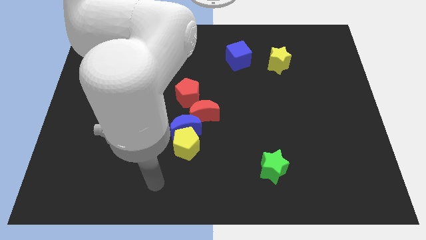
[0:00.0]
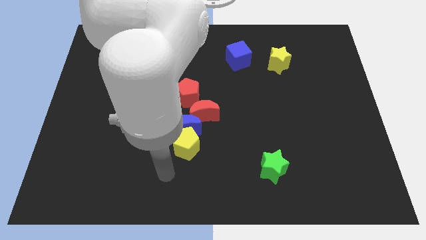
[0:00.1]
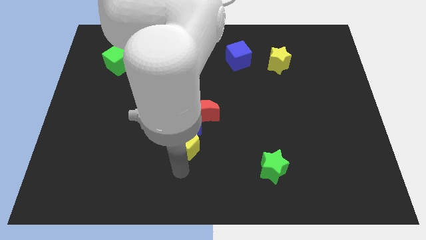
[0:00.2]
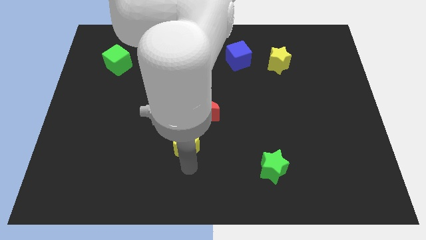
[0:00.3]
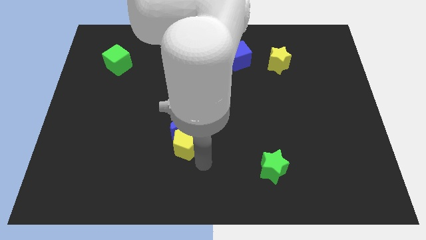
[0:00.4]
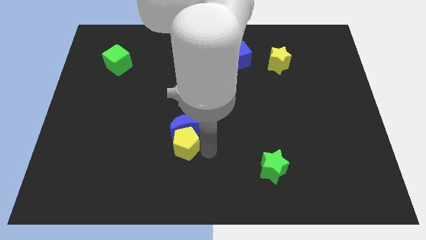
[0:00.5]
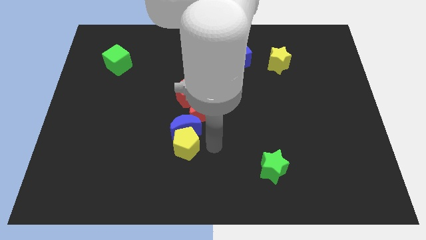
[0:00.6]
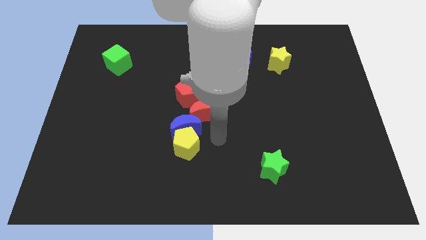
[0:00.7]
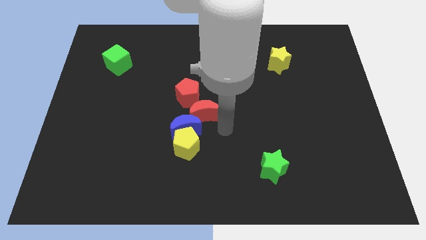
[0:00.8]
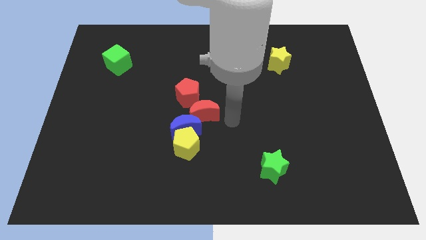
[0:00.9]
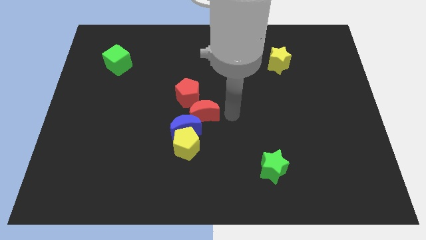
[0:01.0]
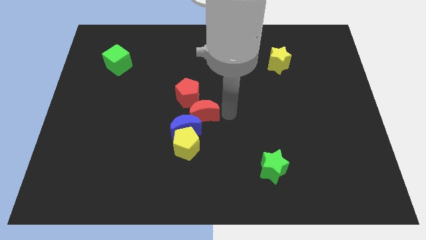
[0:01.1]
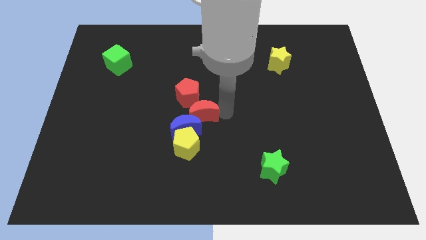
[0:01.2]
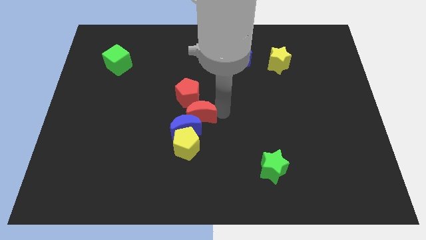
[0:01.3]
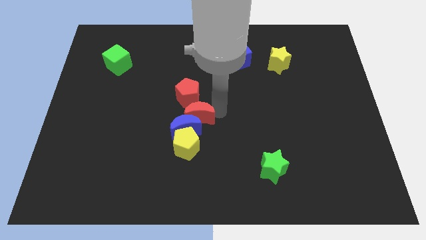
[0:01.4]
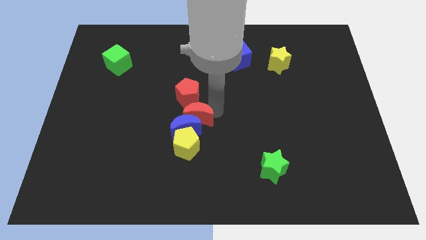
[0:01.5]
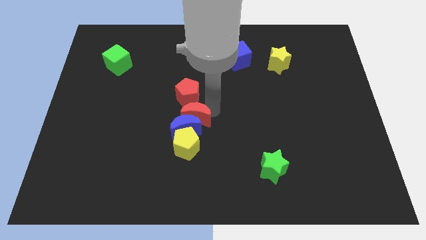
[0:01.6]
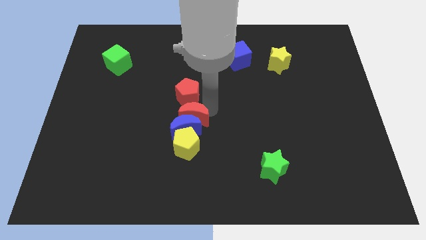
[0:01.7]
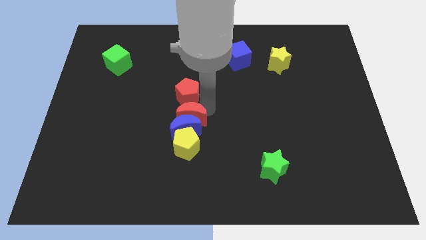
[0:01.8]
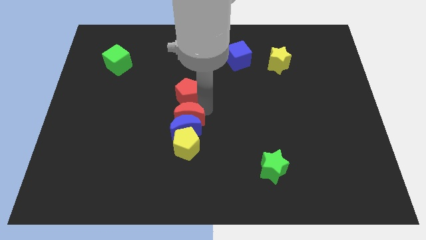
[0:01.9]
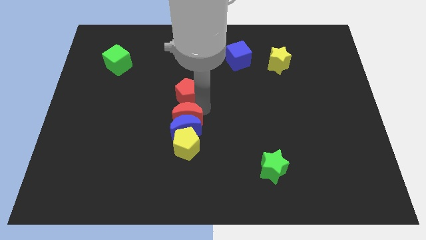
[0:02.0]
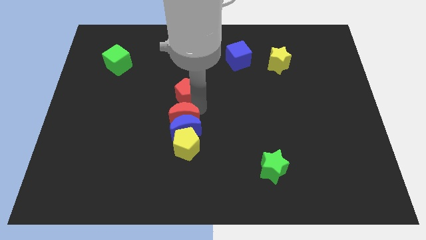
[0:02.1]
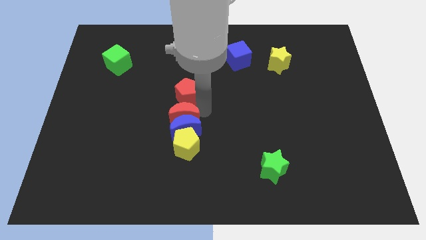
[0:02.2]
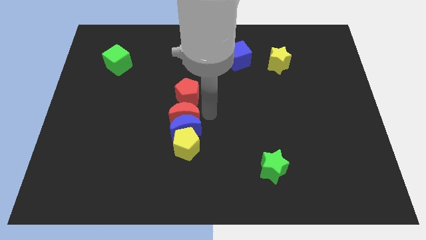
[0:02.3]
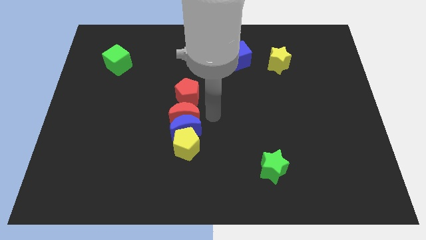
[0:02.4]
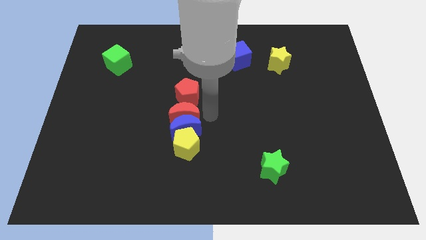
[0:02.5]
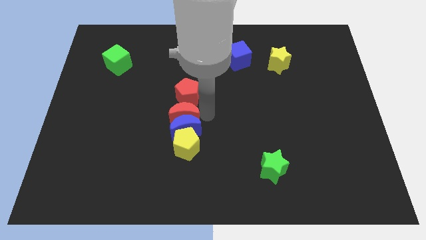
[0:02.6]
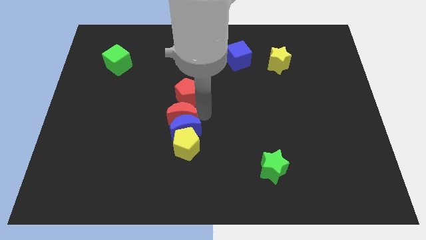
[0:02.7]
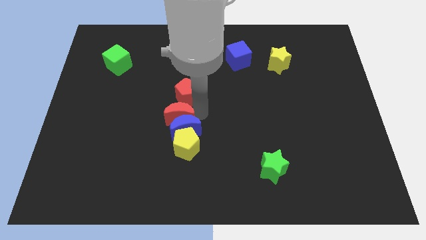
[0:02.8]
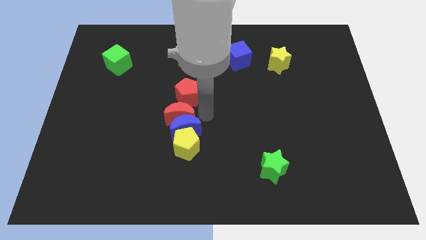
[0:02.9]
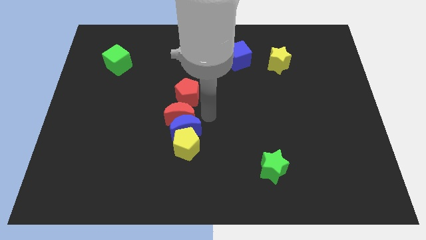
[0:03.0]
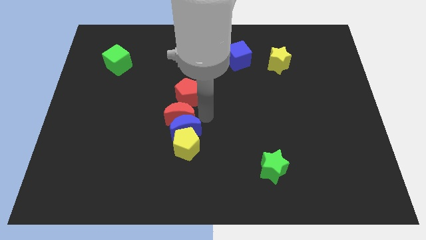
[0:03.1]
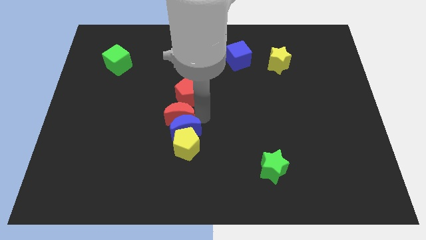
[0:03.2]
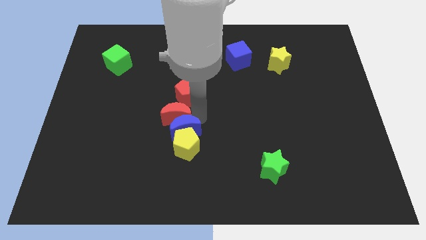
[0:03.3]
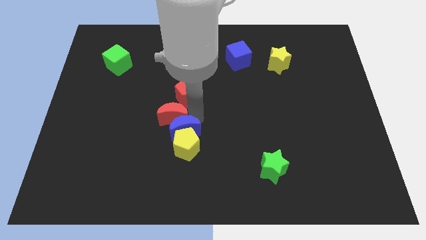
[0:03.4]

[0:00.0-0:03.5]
move the red moon a bit to the left

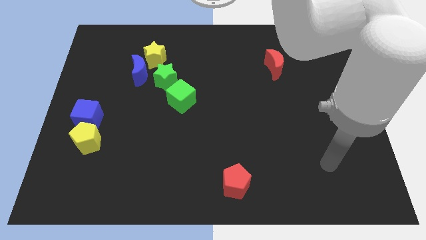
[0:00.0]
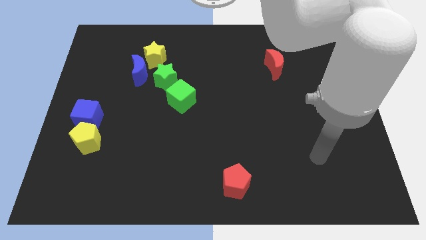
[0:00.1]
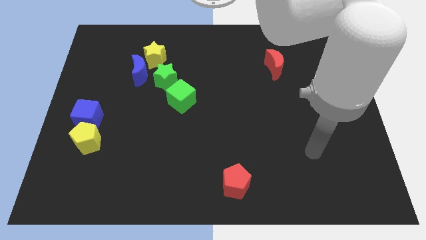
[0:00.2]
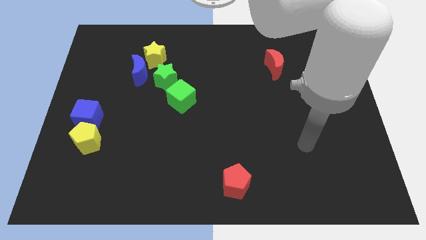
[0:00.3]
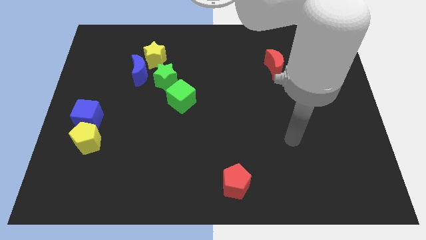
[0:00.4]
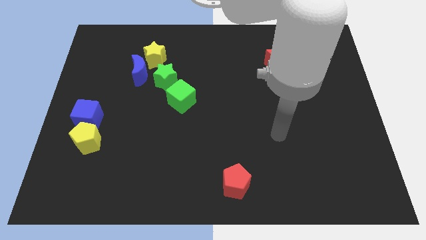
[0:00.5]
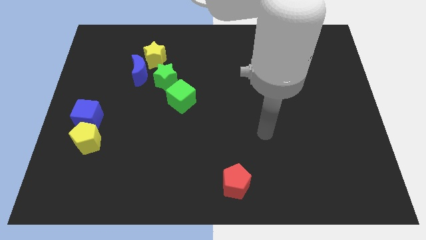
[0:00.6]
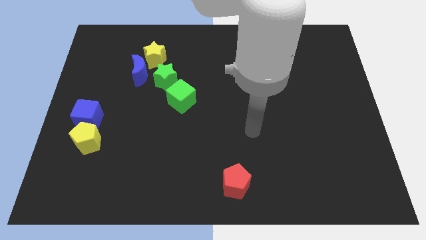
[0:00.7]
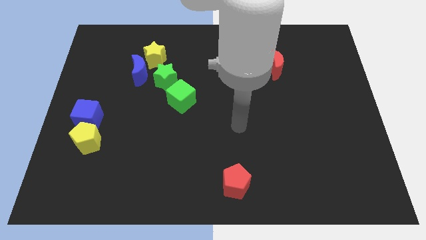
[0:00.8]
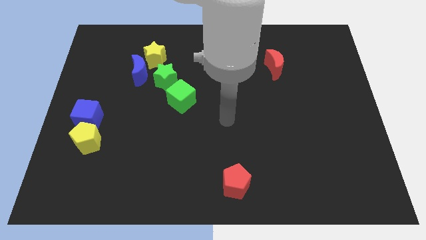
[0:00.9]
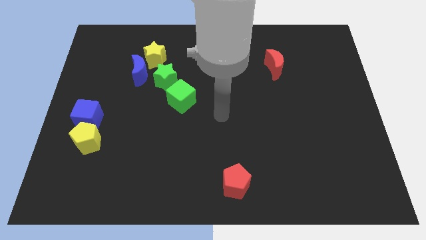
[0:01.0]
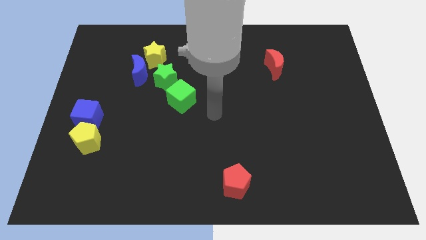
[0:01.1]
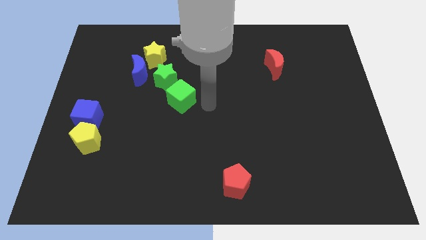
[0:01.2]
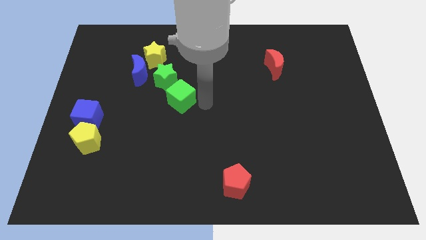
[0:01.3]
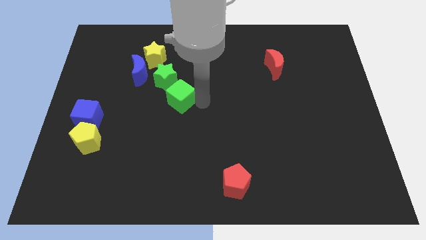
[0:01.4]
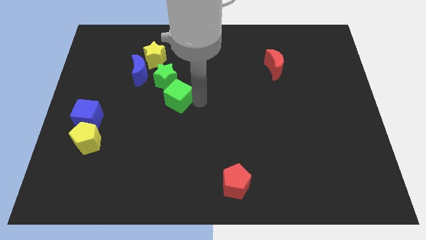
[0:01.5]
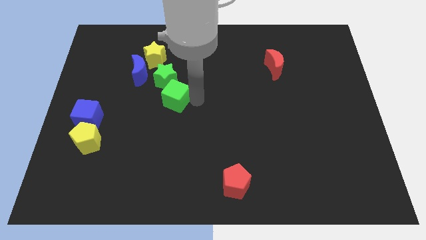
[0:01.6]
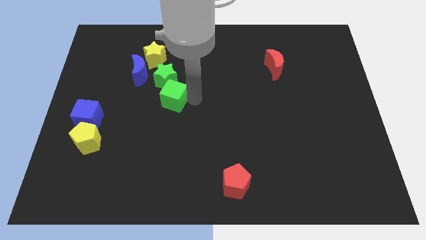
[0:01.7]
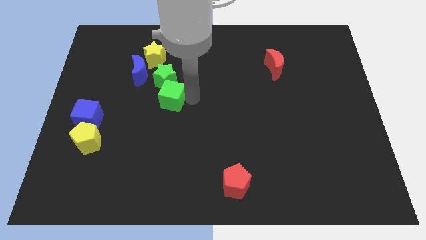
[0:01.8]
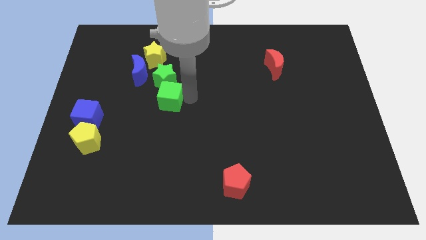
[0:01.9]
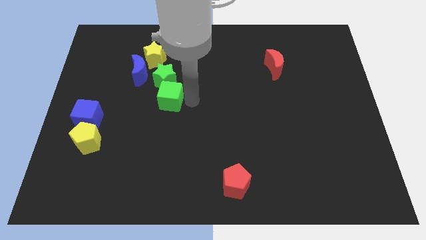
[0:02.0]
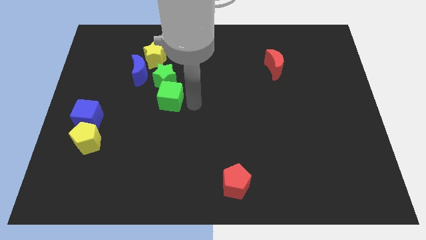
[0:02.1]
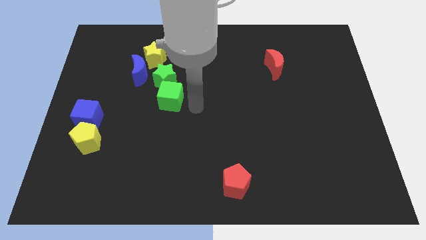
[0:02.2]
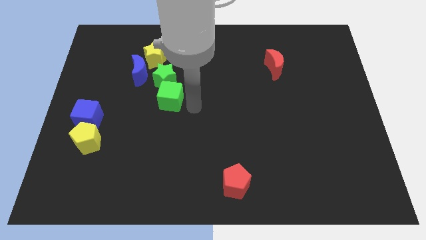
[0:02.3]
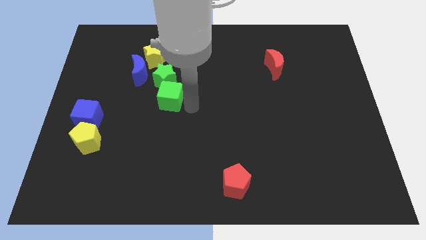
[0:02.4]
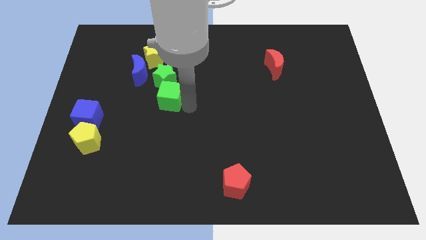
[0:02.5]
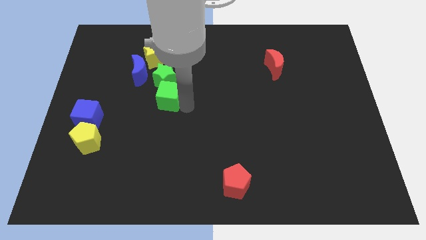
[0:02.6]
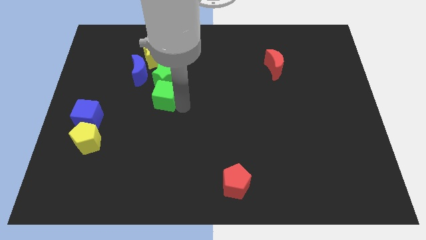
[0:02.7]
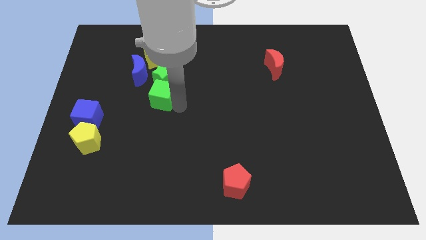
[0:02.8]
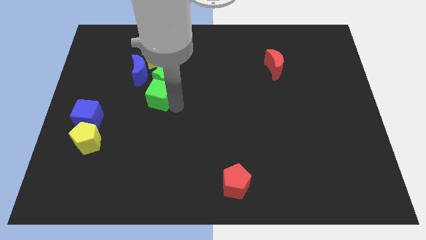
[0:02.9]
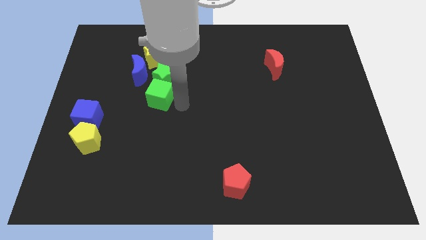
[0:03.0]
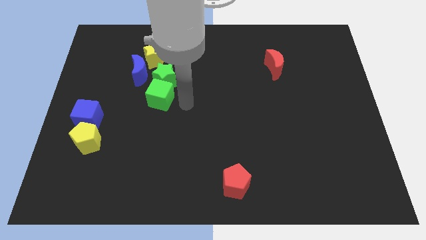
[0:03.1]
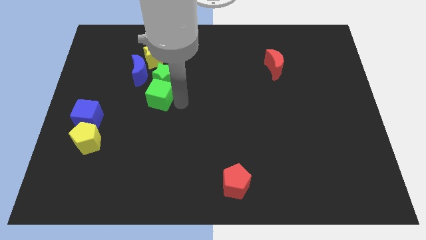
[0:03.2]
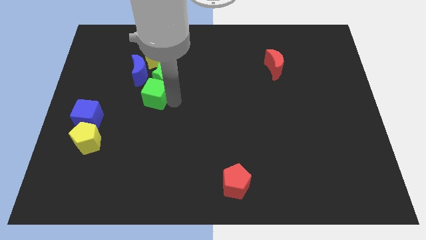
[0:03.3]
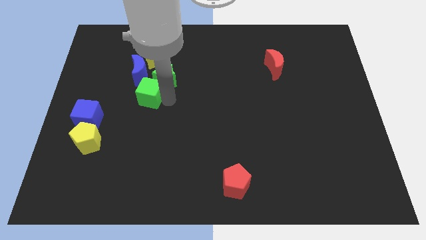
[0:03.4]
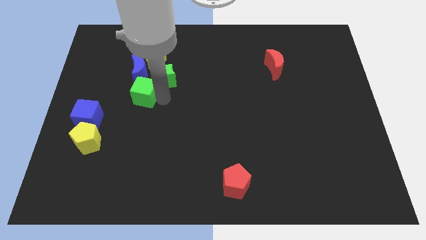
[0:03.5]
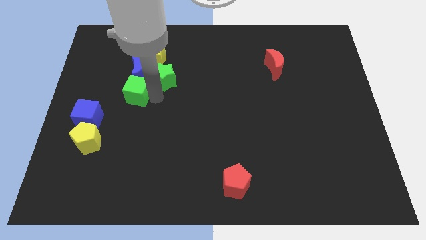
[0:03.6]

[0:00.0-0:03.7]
move the green cube a little bit diagonally upwards and to the left

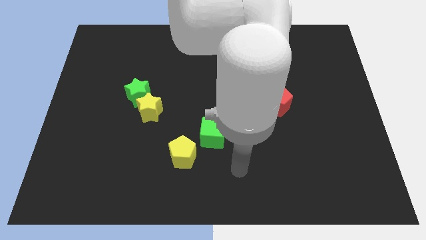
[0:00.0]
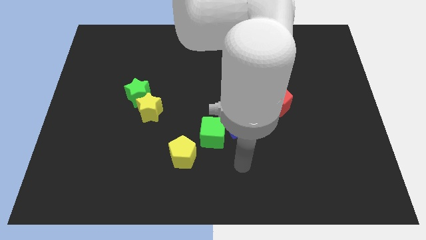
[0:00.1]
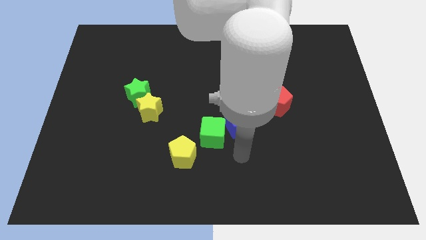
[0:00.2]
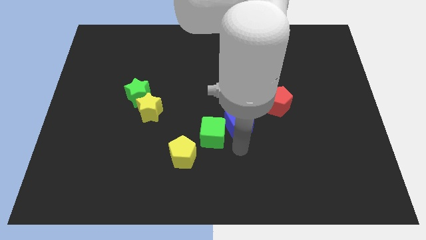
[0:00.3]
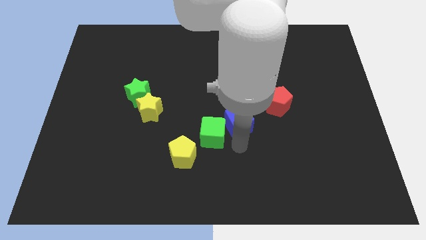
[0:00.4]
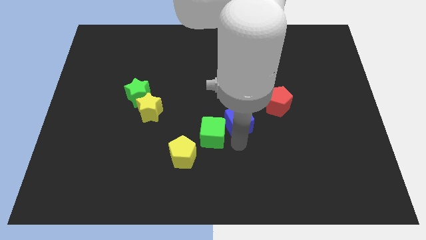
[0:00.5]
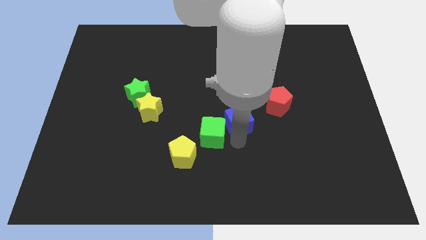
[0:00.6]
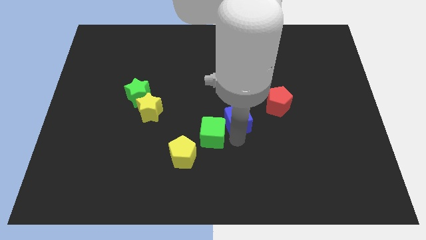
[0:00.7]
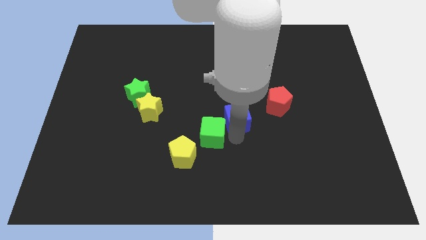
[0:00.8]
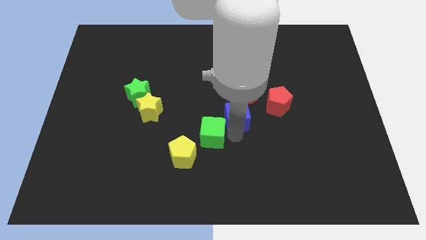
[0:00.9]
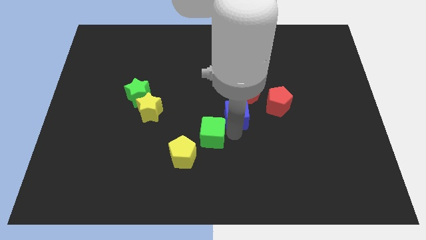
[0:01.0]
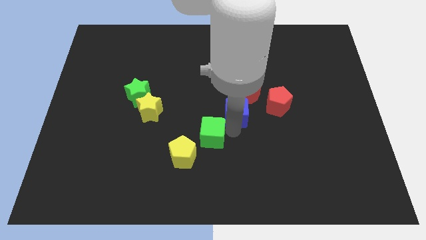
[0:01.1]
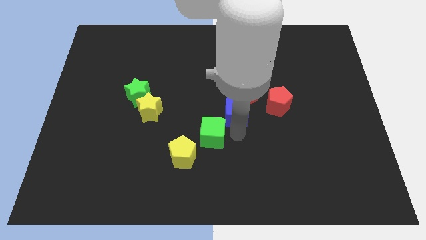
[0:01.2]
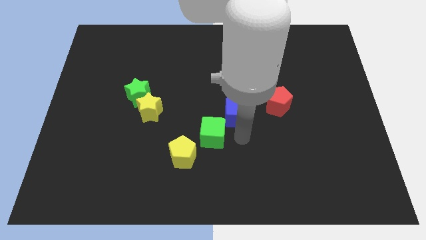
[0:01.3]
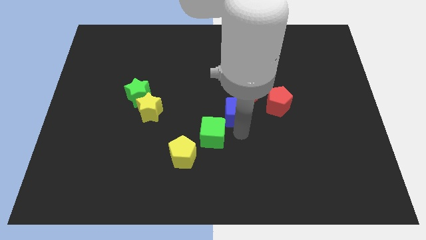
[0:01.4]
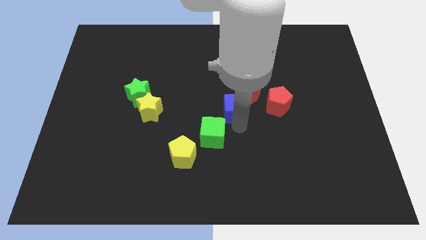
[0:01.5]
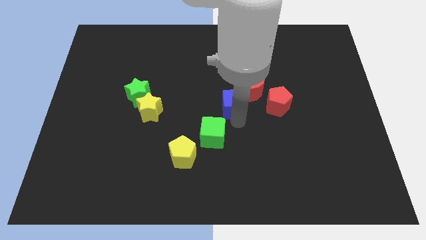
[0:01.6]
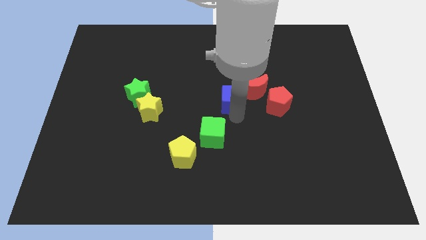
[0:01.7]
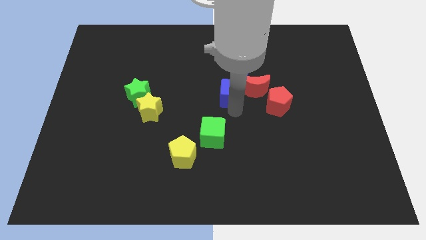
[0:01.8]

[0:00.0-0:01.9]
slightly slide the blue cube up
